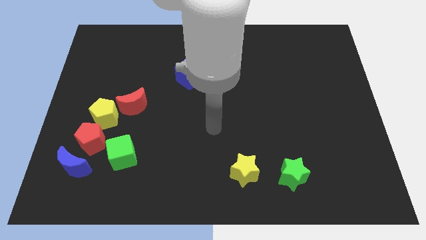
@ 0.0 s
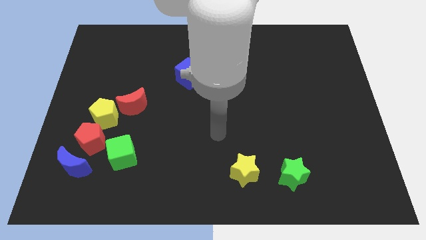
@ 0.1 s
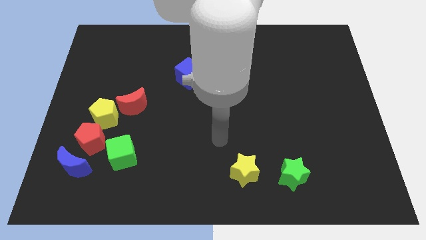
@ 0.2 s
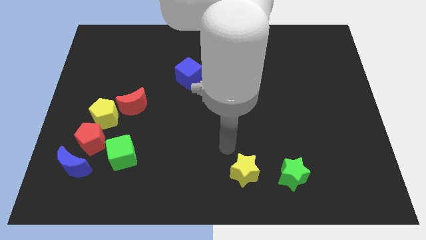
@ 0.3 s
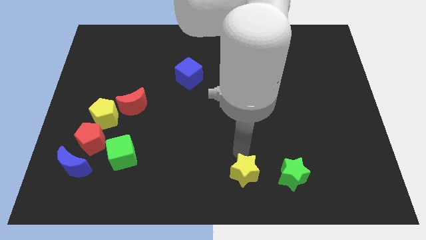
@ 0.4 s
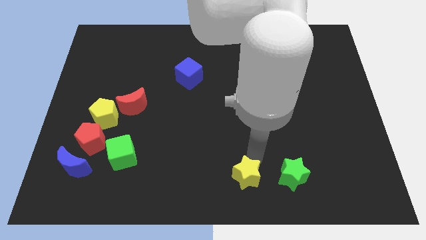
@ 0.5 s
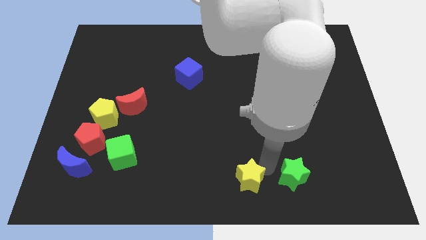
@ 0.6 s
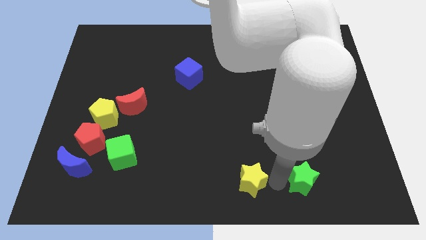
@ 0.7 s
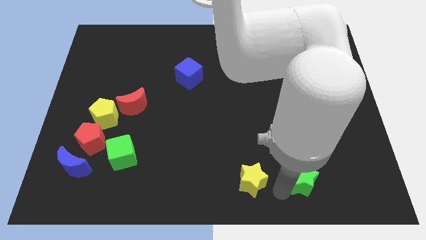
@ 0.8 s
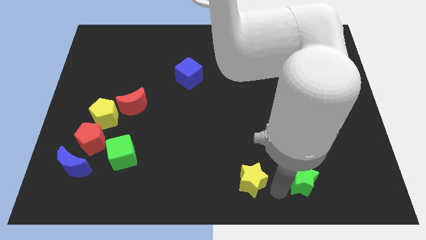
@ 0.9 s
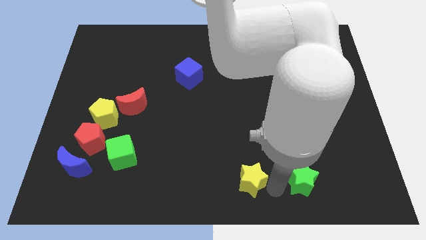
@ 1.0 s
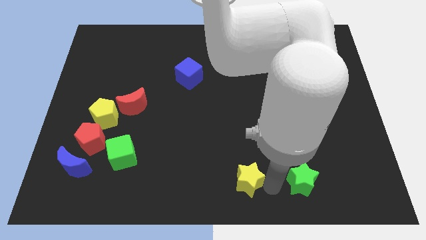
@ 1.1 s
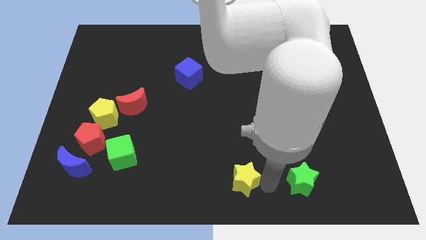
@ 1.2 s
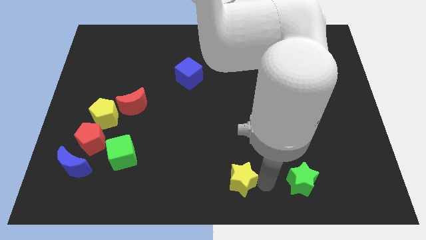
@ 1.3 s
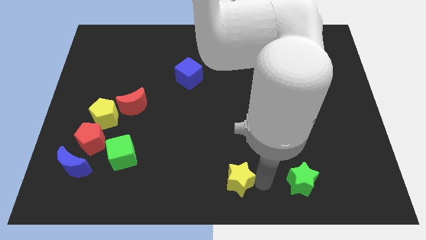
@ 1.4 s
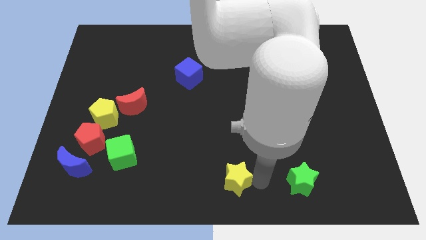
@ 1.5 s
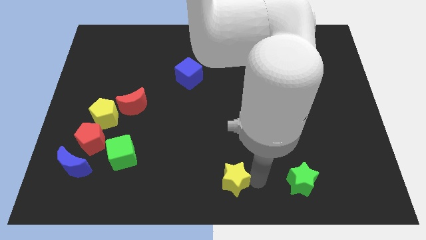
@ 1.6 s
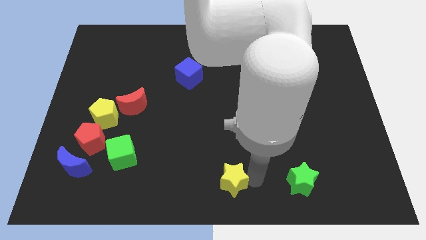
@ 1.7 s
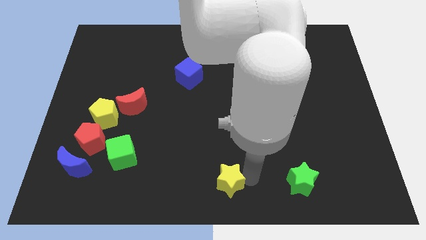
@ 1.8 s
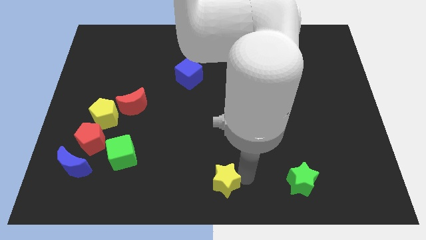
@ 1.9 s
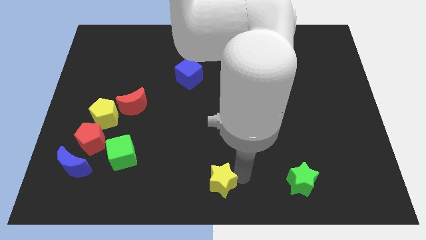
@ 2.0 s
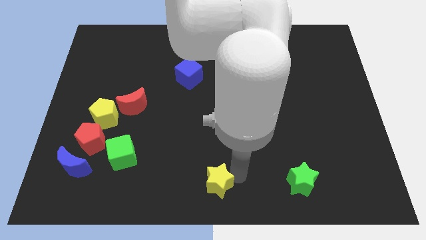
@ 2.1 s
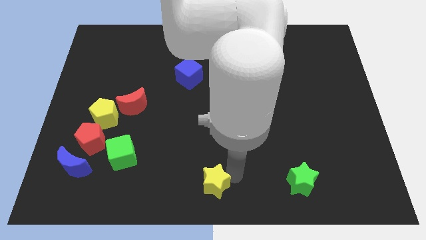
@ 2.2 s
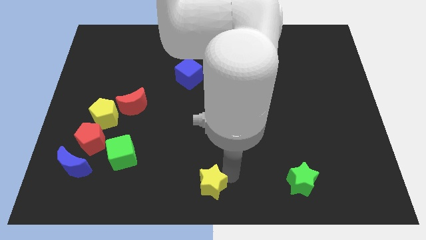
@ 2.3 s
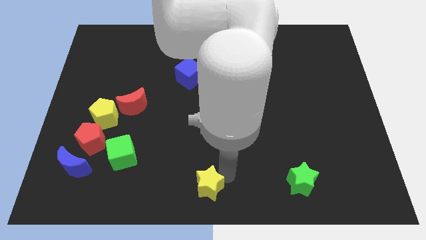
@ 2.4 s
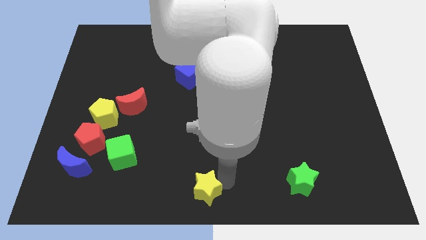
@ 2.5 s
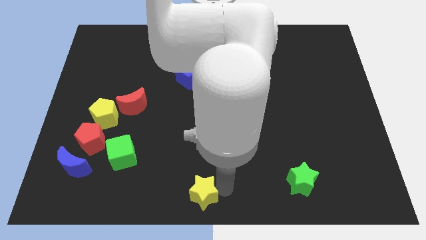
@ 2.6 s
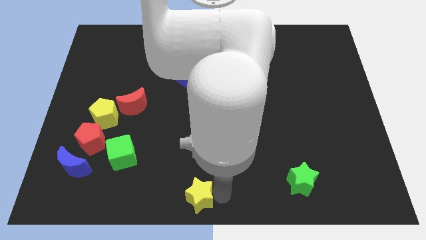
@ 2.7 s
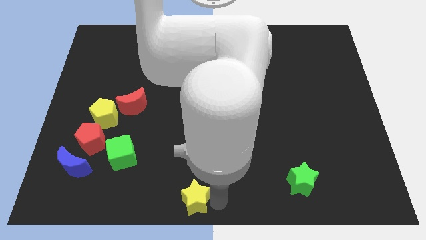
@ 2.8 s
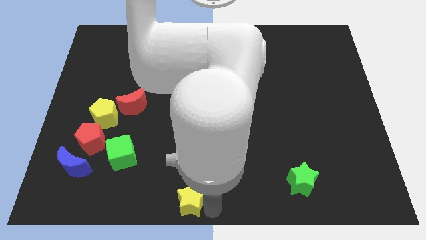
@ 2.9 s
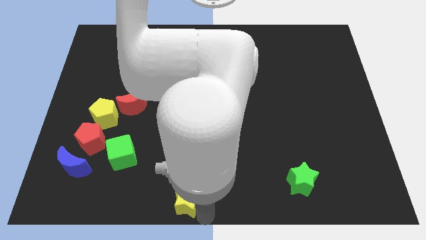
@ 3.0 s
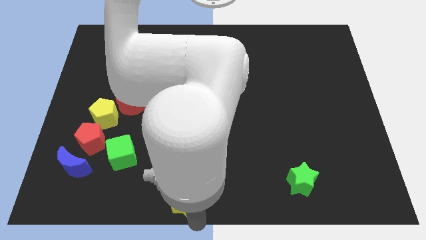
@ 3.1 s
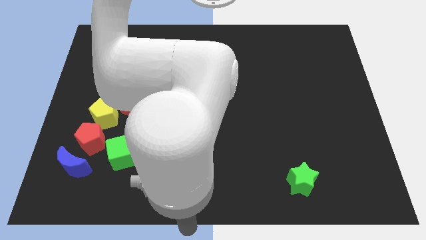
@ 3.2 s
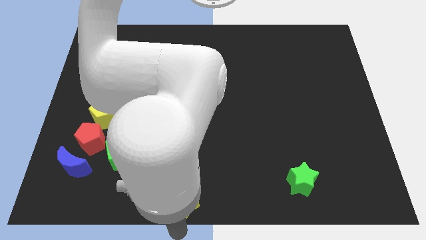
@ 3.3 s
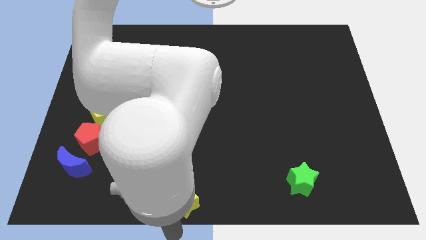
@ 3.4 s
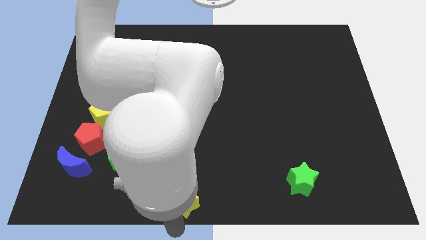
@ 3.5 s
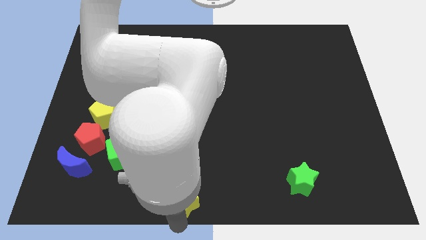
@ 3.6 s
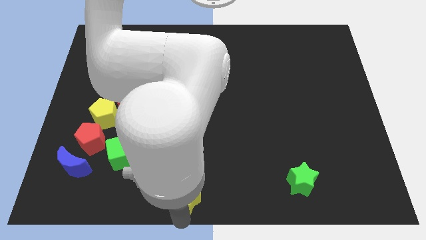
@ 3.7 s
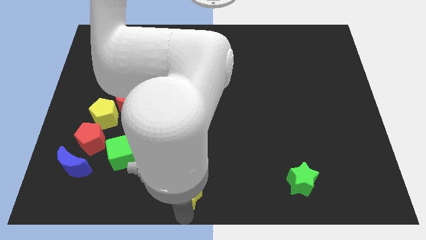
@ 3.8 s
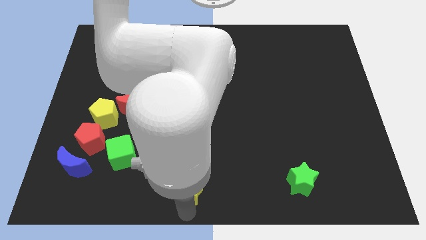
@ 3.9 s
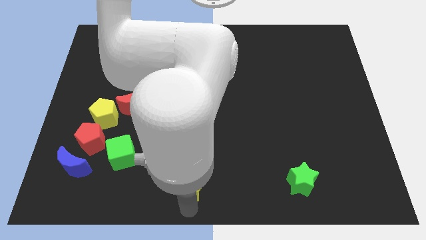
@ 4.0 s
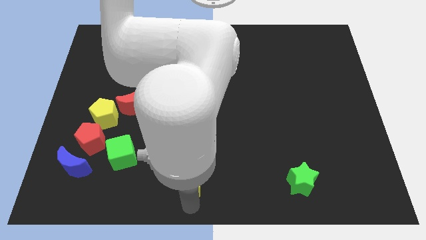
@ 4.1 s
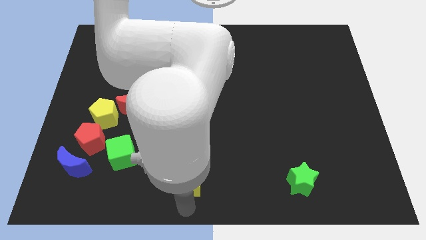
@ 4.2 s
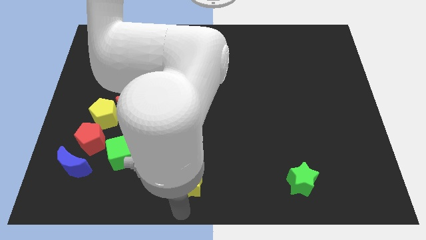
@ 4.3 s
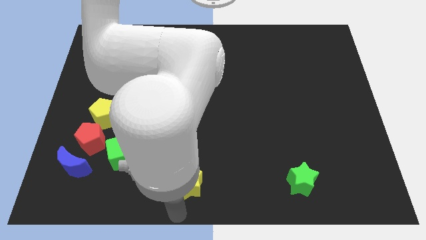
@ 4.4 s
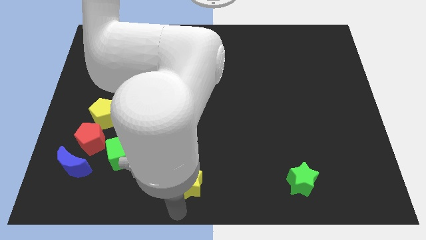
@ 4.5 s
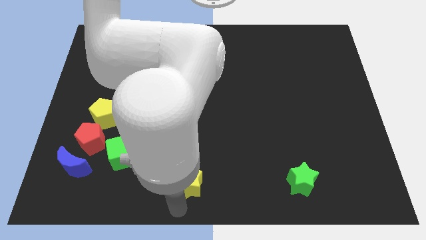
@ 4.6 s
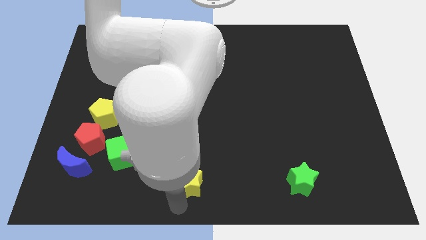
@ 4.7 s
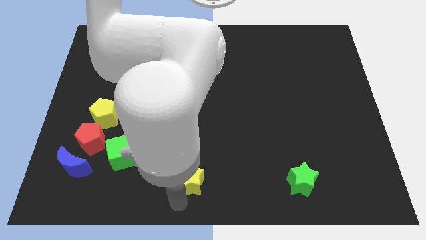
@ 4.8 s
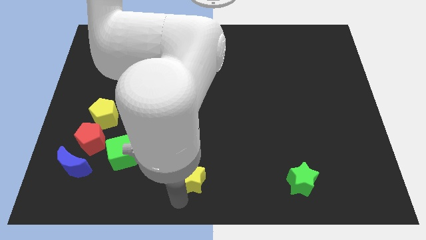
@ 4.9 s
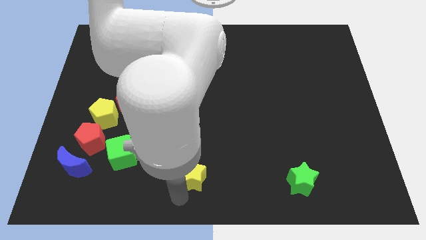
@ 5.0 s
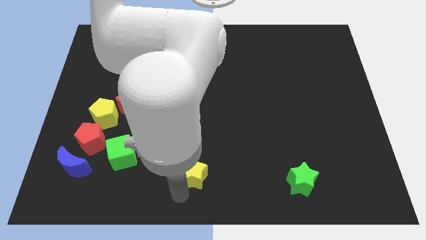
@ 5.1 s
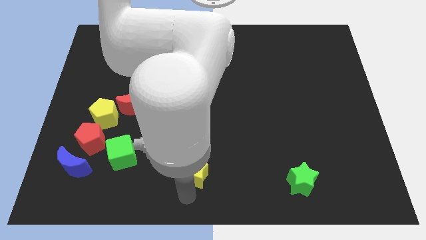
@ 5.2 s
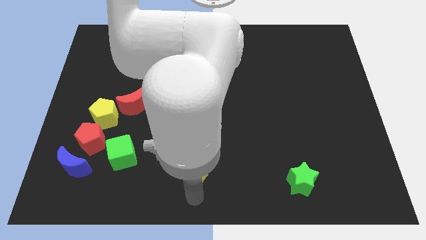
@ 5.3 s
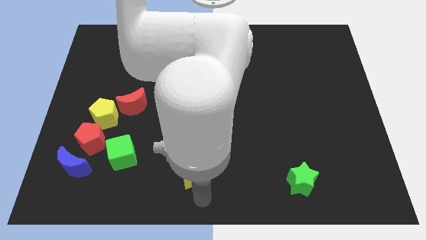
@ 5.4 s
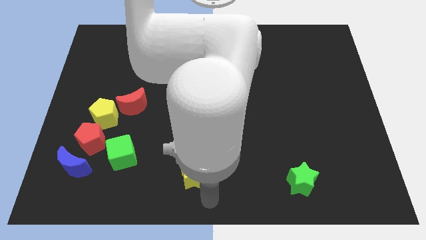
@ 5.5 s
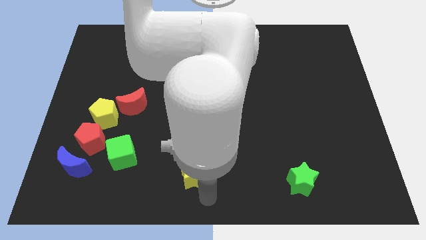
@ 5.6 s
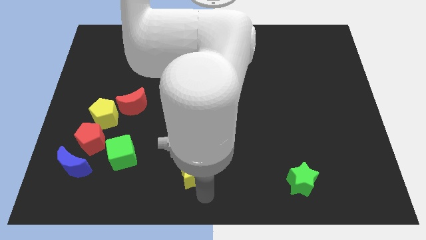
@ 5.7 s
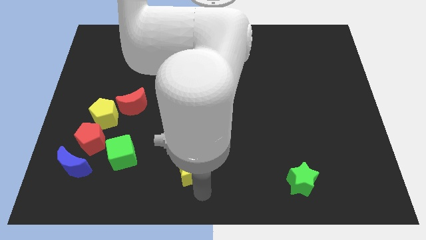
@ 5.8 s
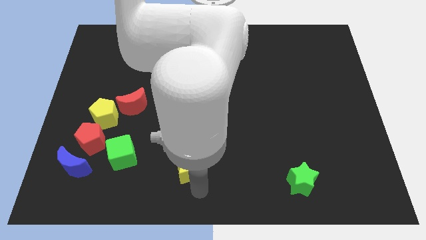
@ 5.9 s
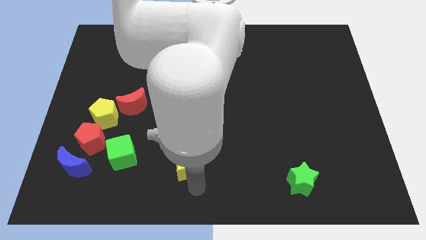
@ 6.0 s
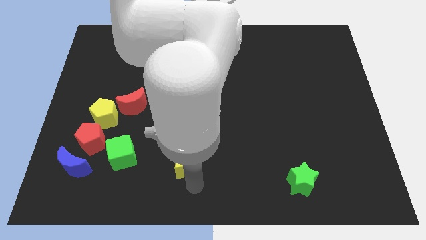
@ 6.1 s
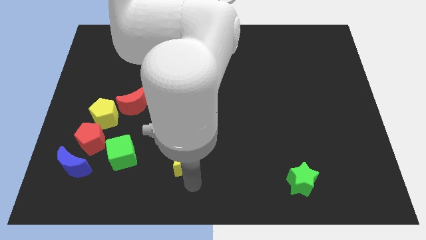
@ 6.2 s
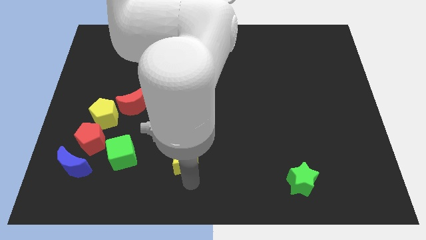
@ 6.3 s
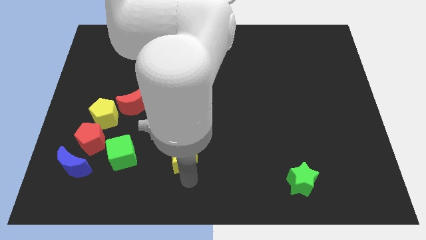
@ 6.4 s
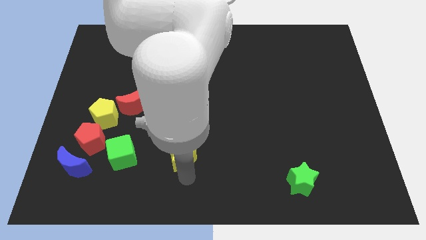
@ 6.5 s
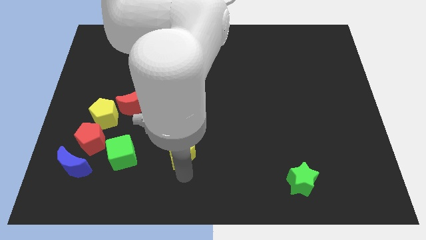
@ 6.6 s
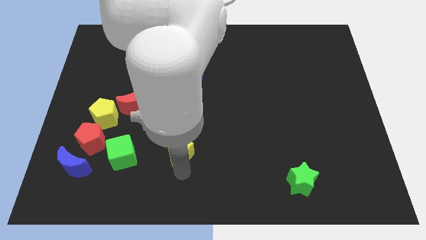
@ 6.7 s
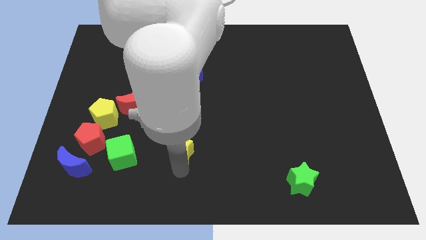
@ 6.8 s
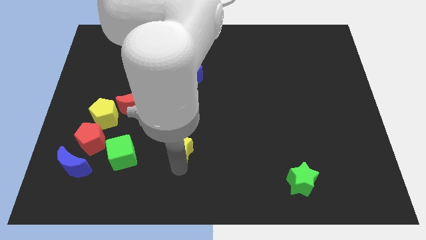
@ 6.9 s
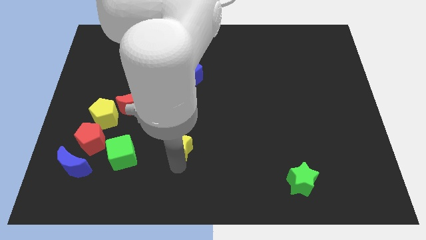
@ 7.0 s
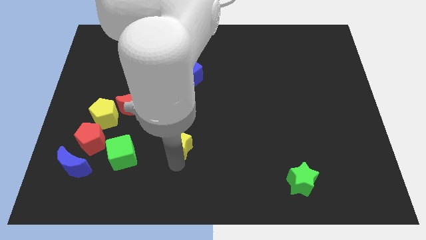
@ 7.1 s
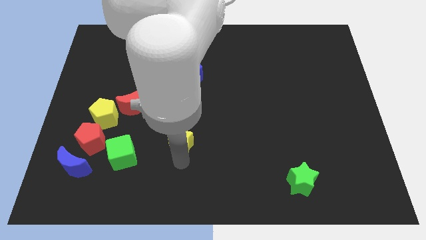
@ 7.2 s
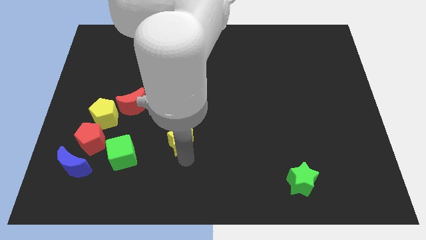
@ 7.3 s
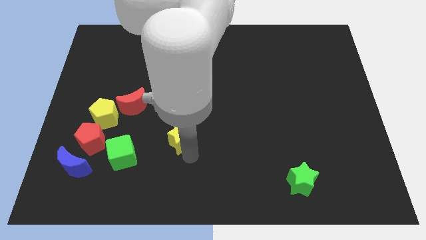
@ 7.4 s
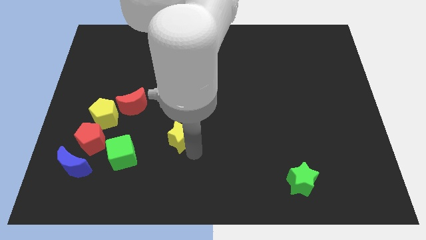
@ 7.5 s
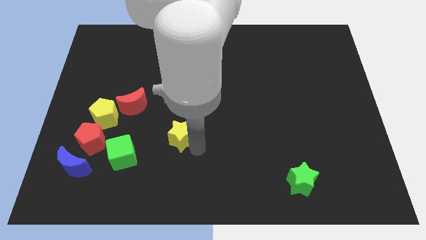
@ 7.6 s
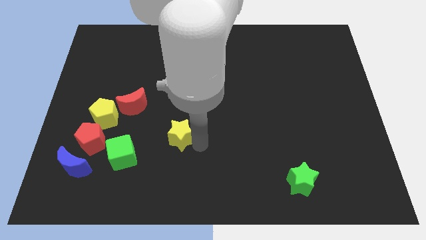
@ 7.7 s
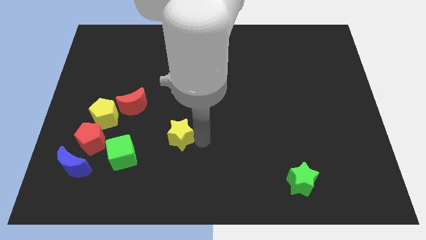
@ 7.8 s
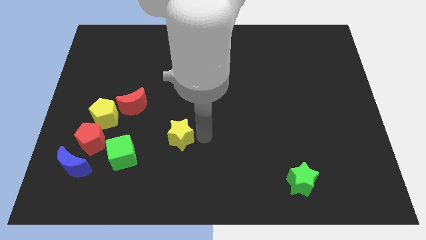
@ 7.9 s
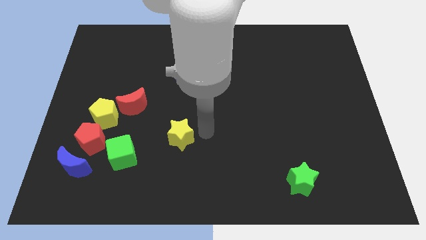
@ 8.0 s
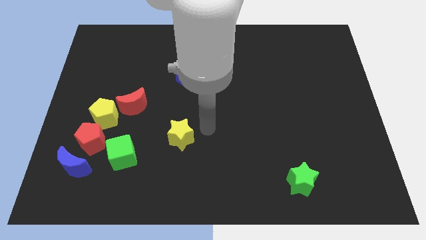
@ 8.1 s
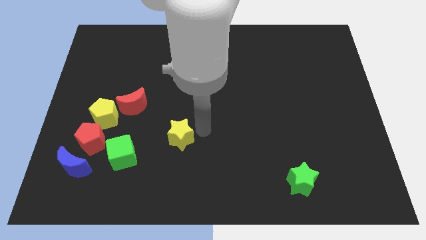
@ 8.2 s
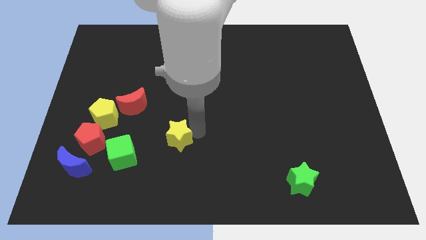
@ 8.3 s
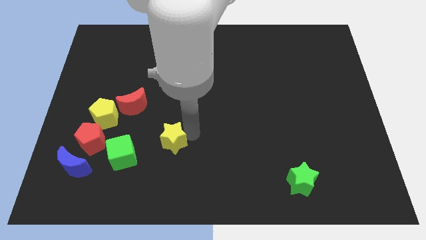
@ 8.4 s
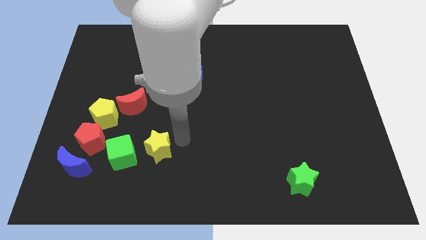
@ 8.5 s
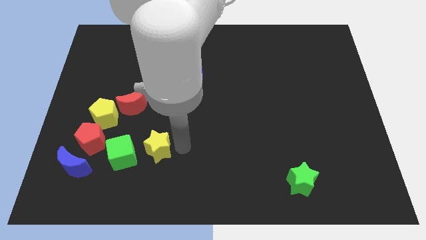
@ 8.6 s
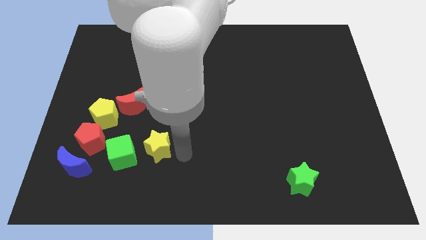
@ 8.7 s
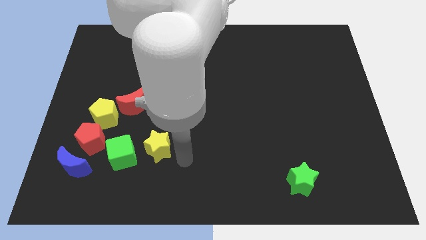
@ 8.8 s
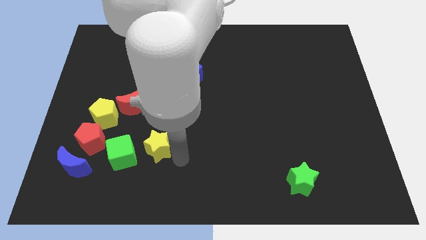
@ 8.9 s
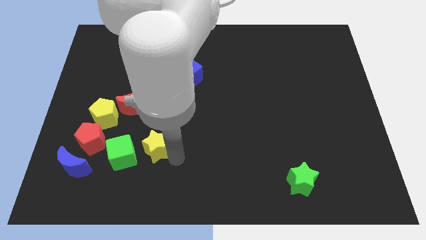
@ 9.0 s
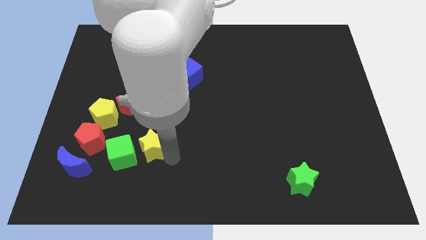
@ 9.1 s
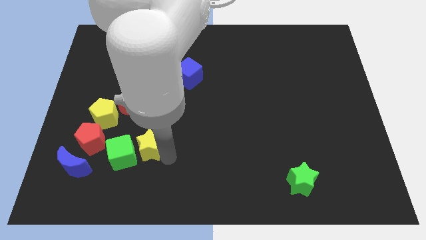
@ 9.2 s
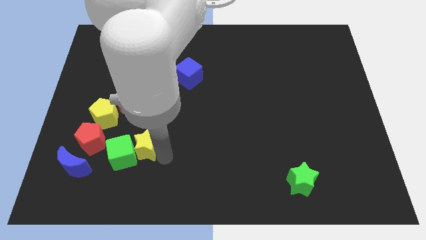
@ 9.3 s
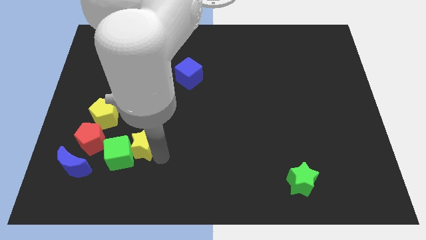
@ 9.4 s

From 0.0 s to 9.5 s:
move the yellow star to the bottom right of the yellow pentagon
